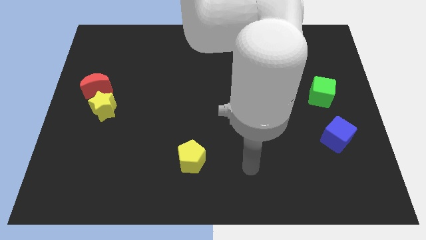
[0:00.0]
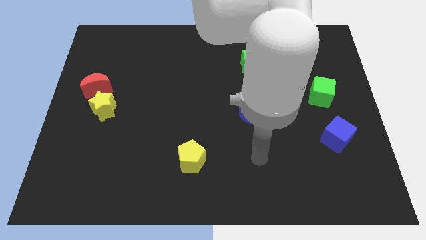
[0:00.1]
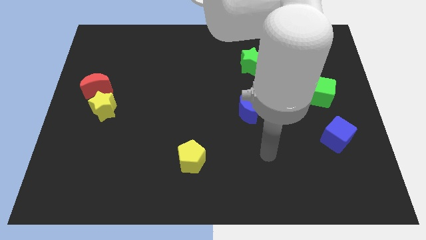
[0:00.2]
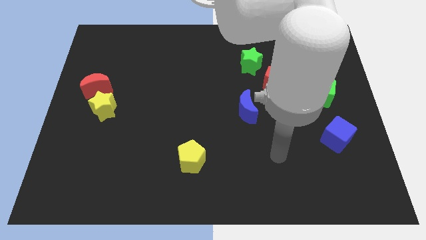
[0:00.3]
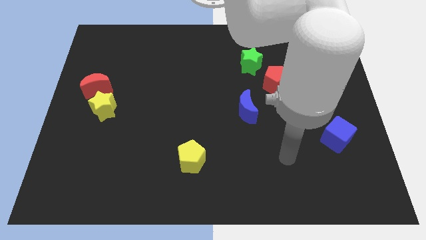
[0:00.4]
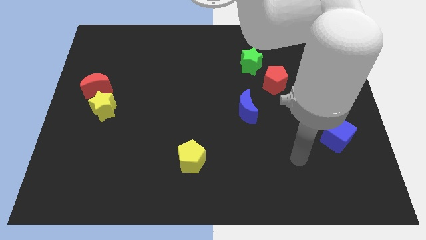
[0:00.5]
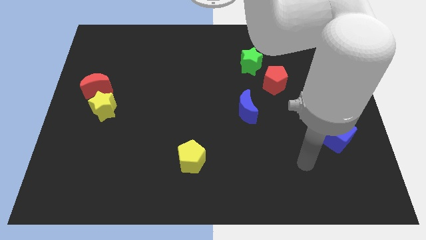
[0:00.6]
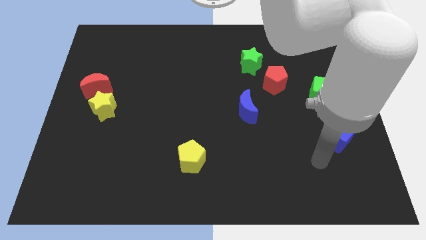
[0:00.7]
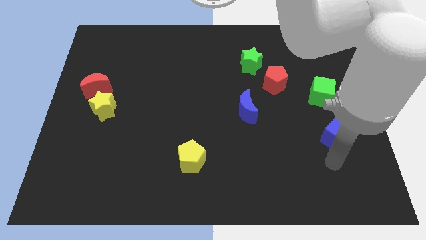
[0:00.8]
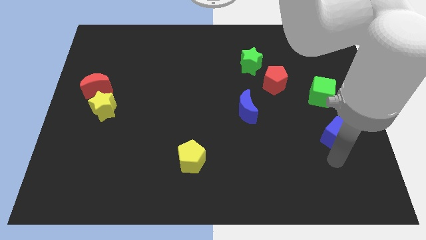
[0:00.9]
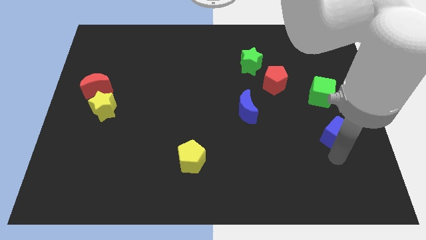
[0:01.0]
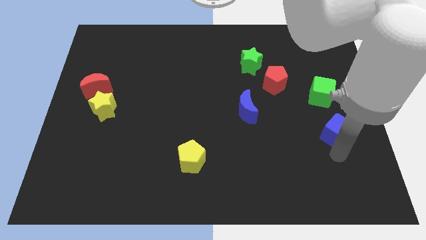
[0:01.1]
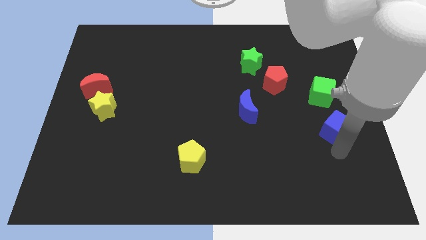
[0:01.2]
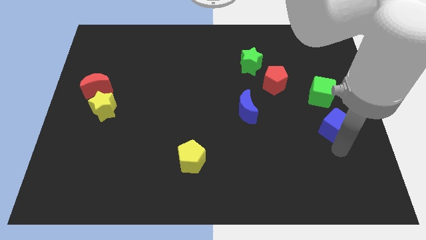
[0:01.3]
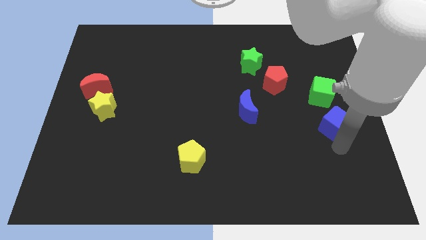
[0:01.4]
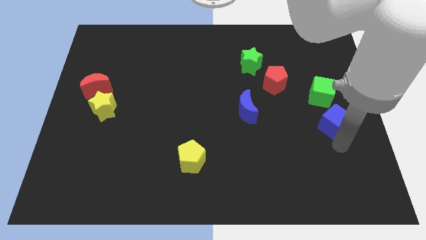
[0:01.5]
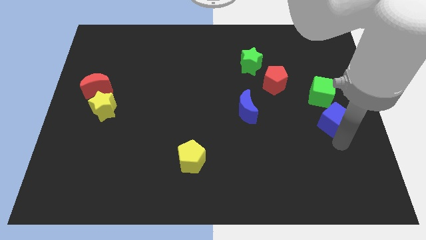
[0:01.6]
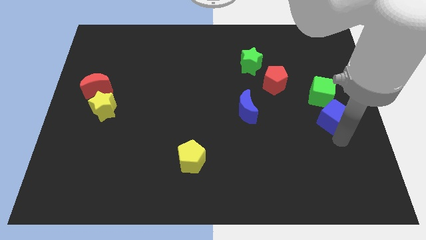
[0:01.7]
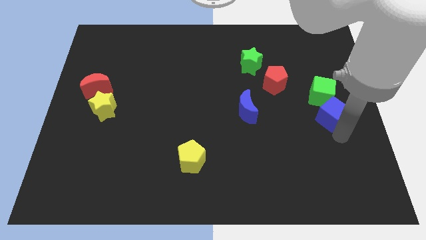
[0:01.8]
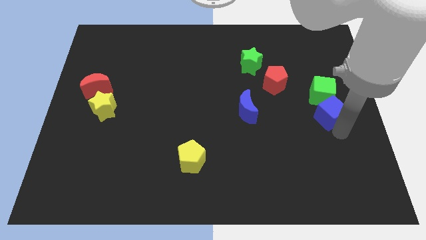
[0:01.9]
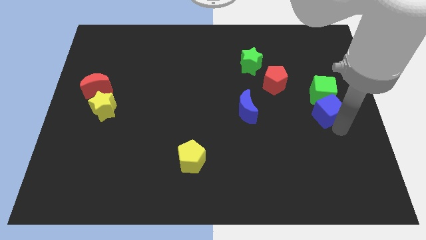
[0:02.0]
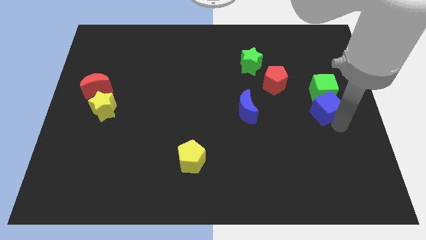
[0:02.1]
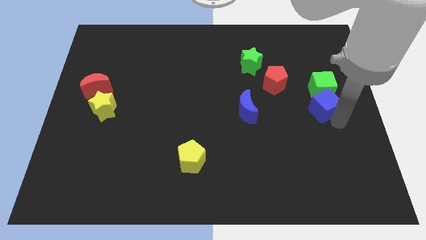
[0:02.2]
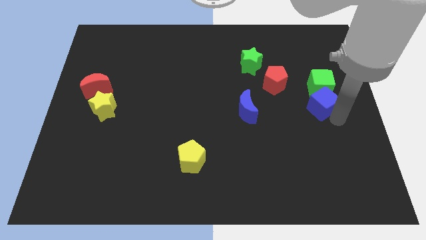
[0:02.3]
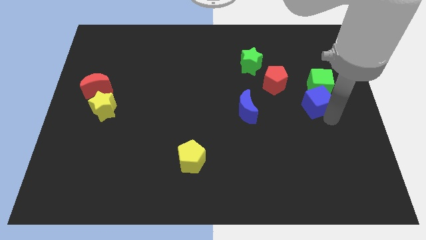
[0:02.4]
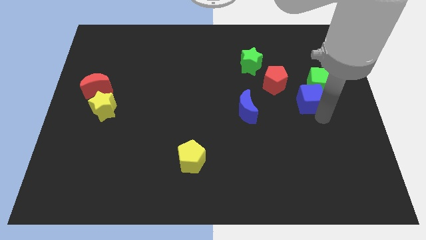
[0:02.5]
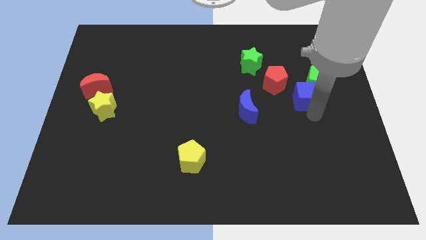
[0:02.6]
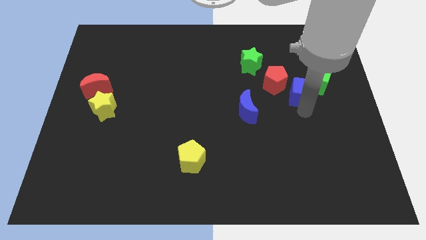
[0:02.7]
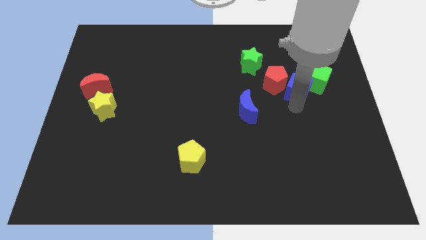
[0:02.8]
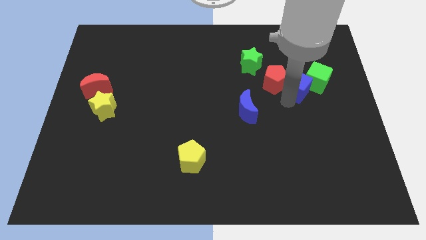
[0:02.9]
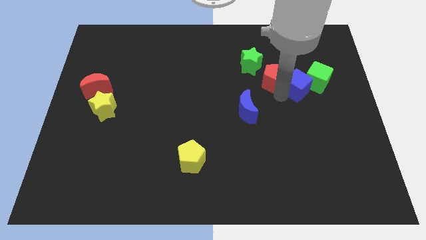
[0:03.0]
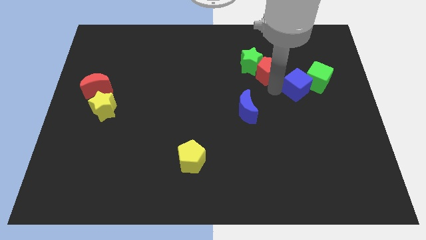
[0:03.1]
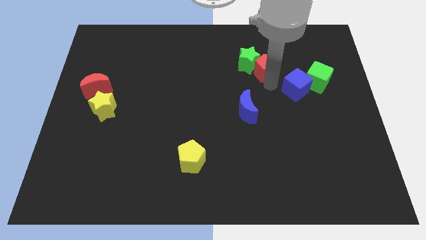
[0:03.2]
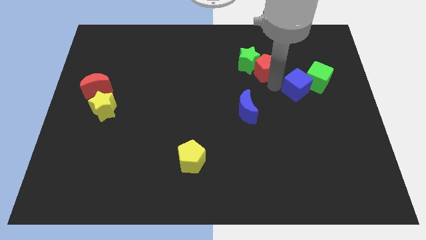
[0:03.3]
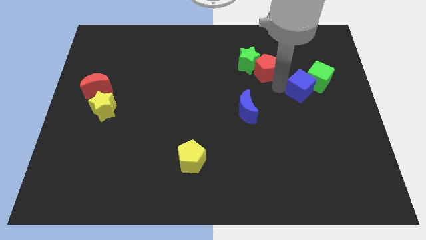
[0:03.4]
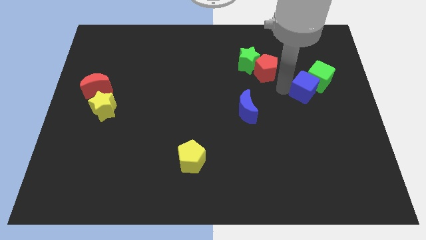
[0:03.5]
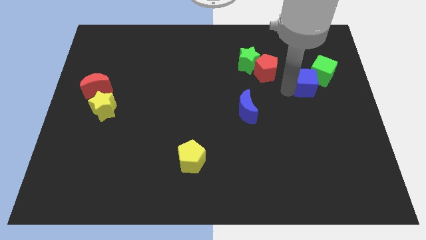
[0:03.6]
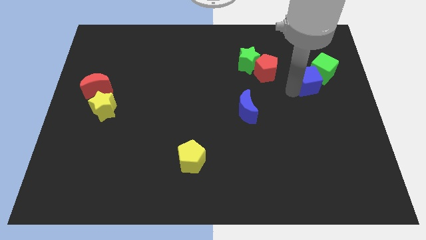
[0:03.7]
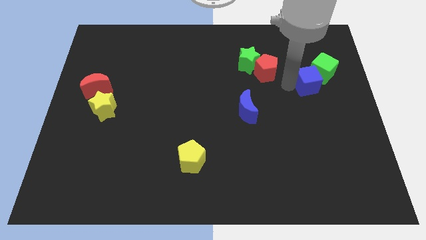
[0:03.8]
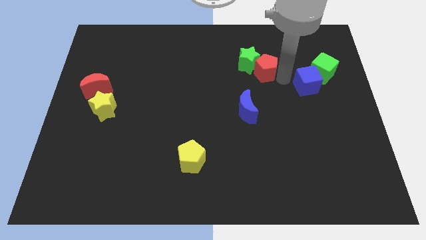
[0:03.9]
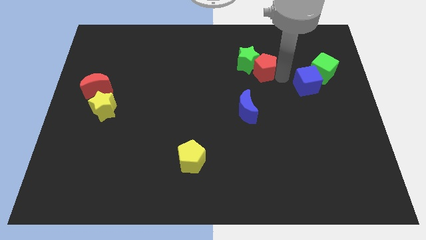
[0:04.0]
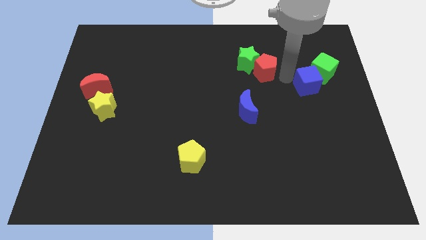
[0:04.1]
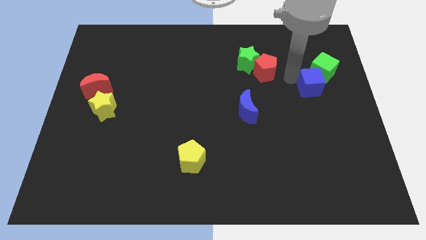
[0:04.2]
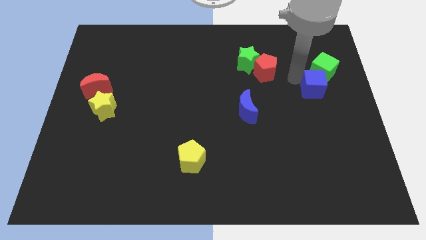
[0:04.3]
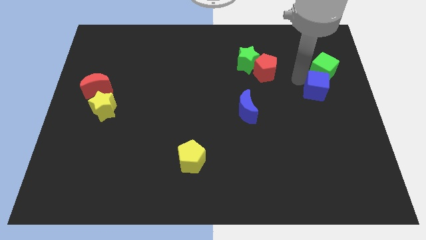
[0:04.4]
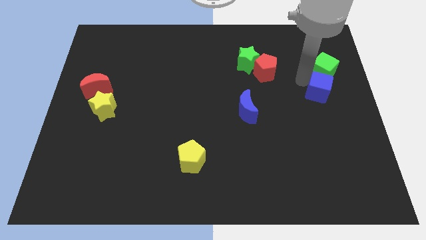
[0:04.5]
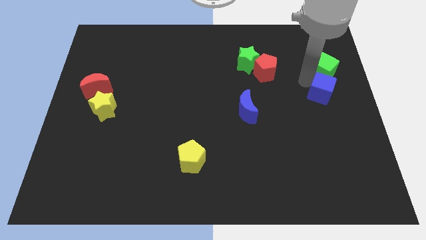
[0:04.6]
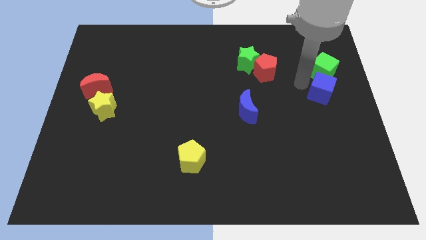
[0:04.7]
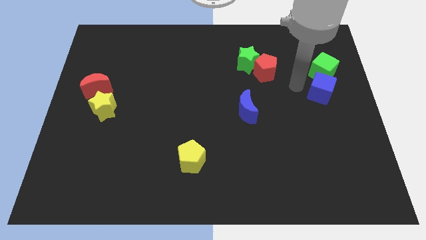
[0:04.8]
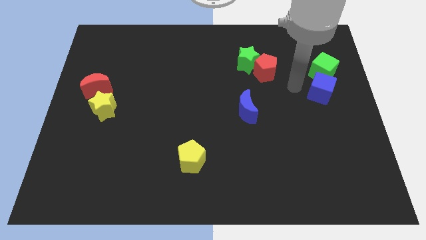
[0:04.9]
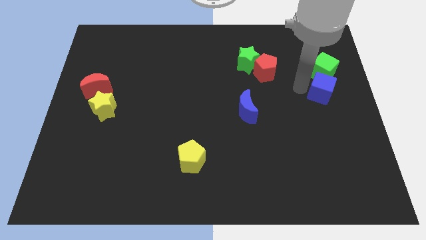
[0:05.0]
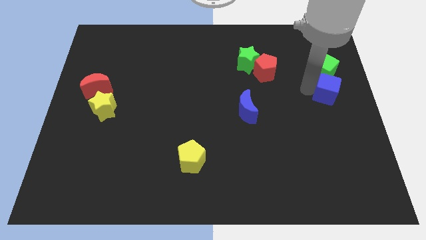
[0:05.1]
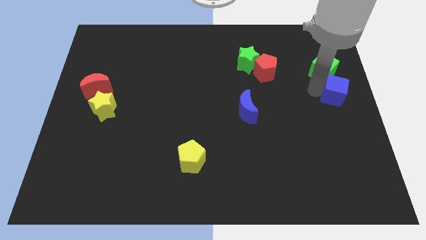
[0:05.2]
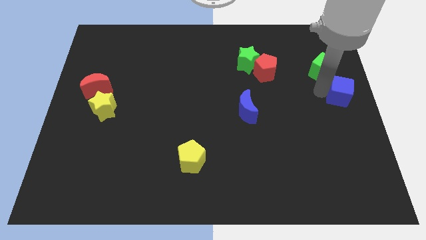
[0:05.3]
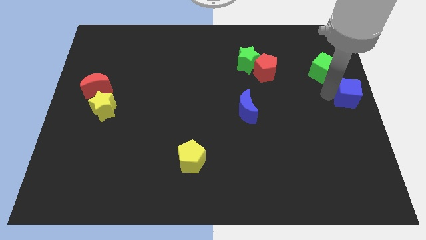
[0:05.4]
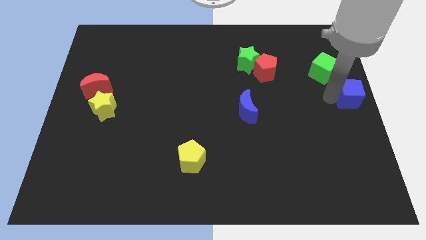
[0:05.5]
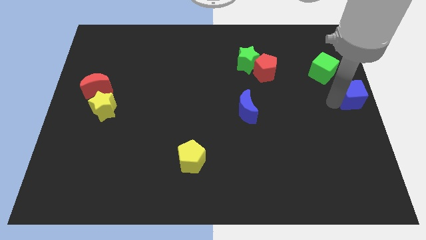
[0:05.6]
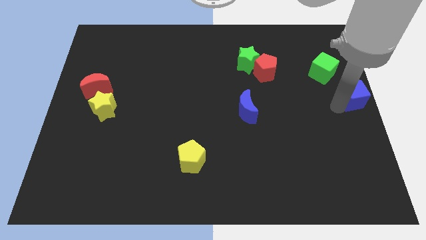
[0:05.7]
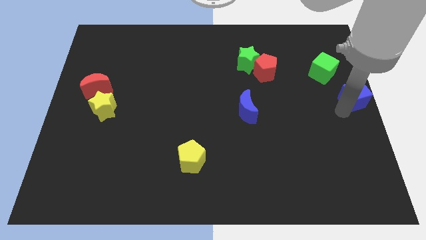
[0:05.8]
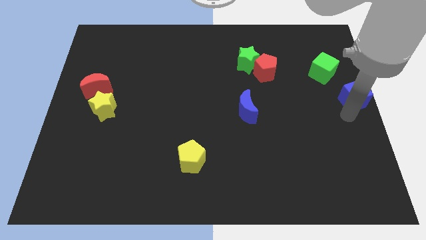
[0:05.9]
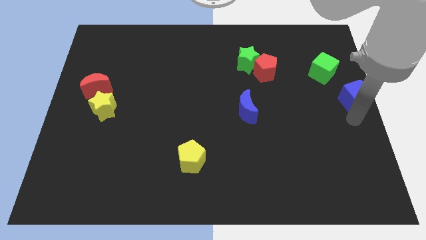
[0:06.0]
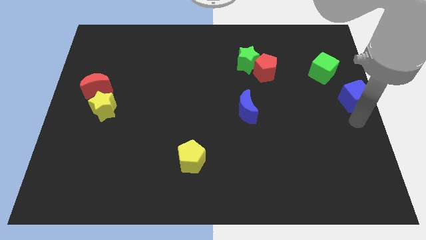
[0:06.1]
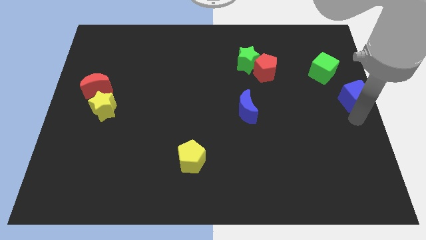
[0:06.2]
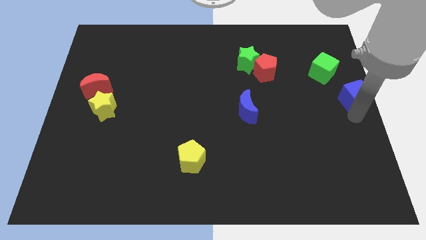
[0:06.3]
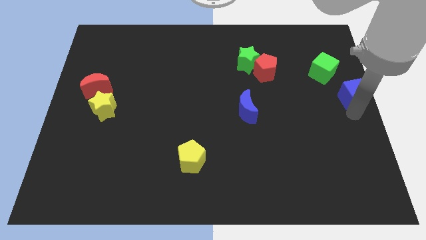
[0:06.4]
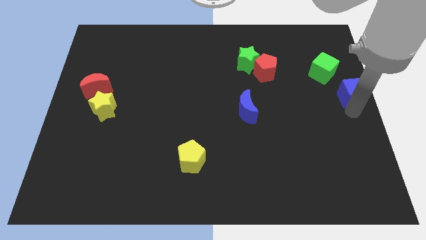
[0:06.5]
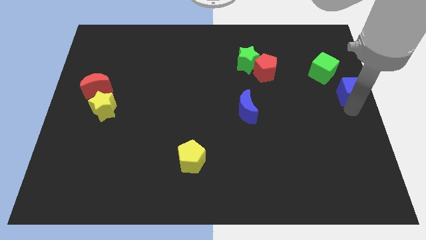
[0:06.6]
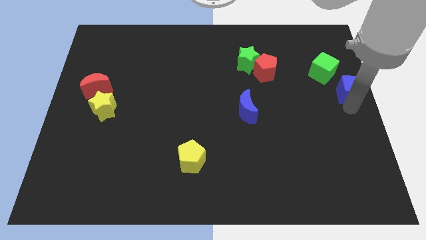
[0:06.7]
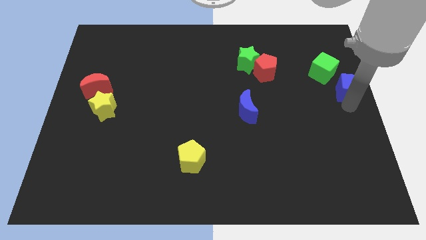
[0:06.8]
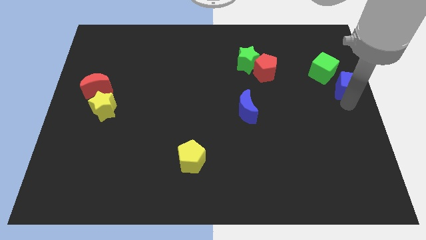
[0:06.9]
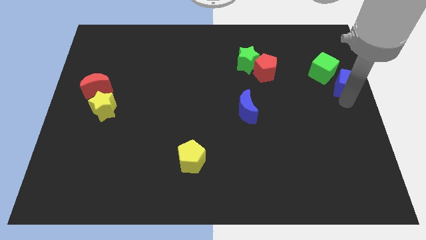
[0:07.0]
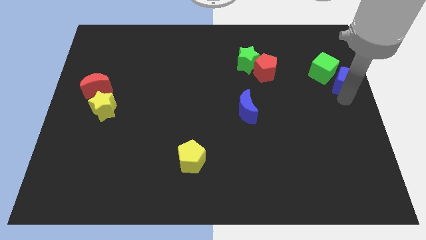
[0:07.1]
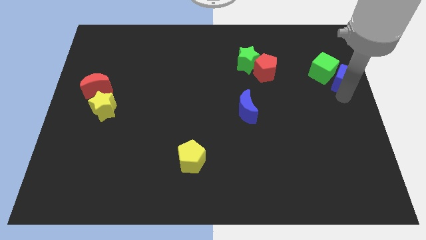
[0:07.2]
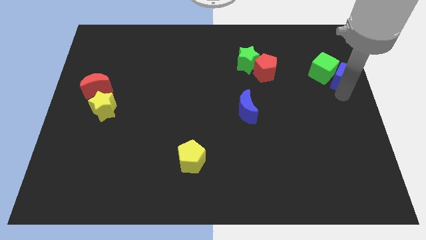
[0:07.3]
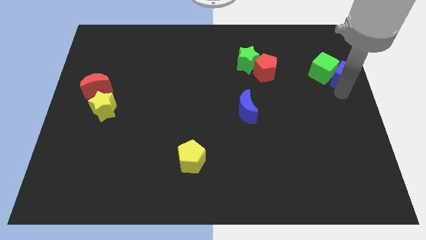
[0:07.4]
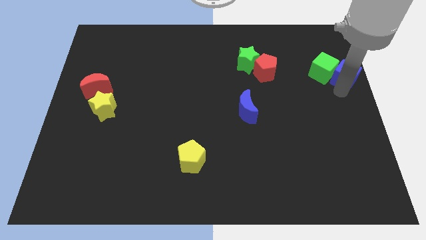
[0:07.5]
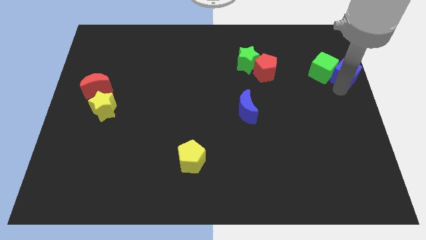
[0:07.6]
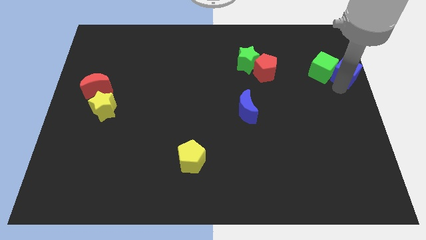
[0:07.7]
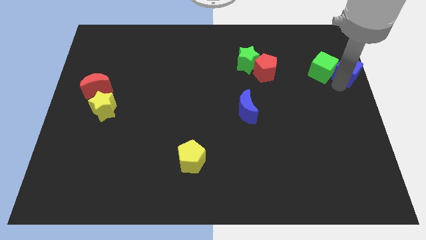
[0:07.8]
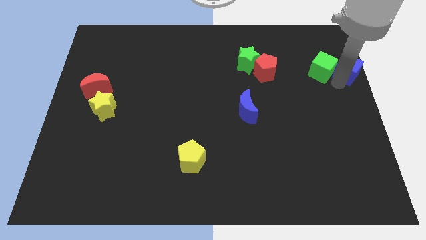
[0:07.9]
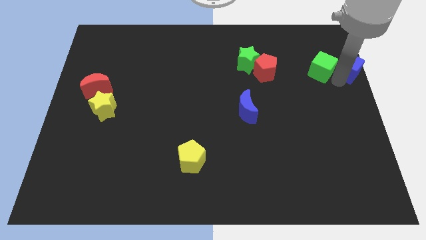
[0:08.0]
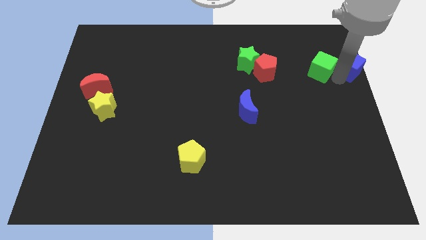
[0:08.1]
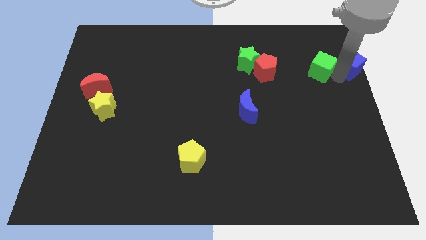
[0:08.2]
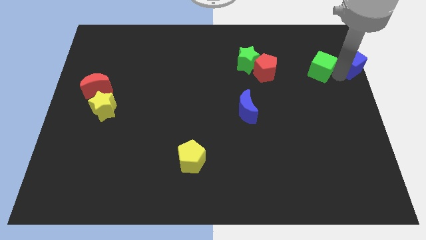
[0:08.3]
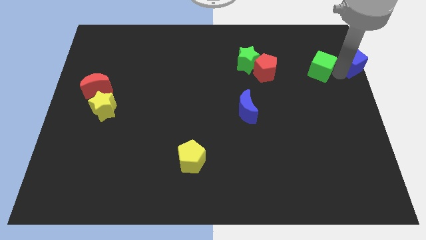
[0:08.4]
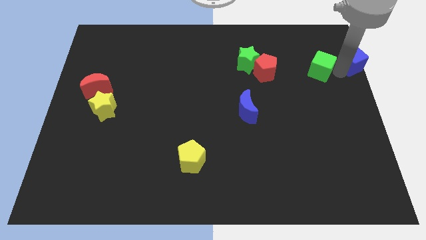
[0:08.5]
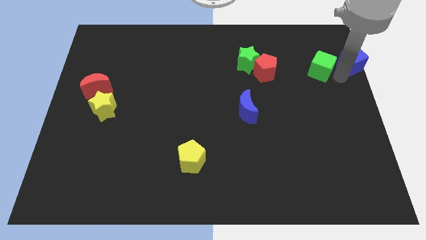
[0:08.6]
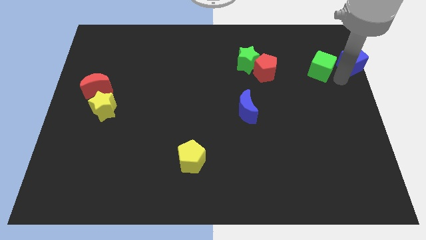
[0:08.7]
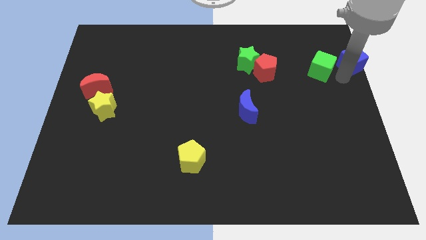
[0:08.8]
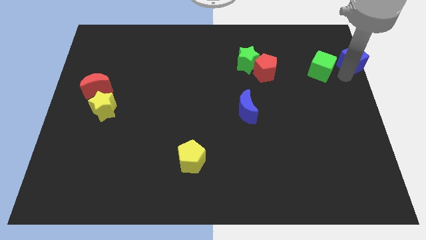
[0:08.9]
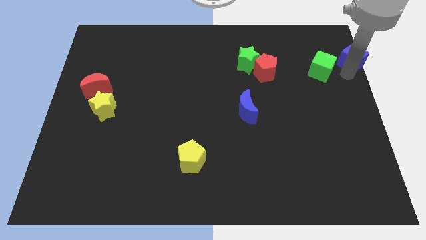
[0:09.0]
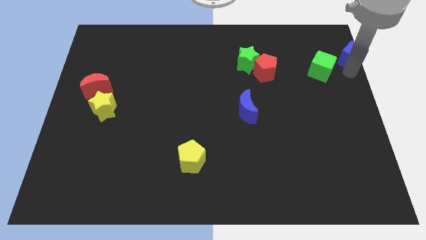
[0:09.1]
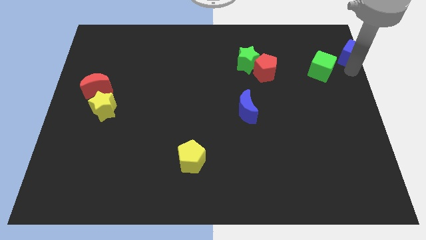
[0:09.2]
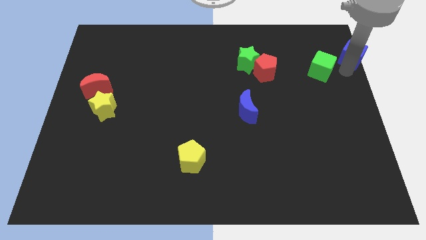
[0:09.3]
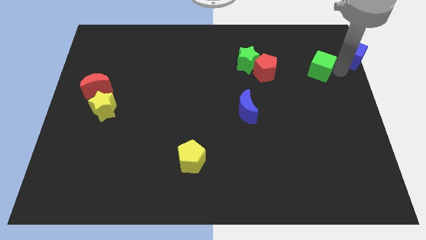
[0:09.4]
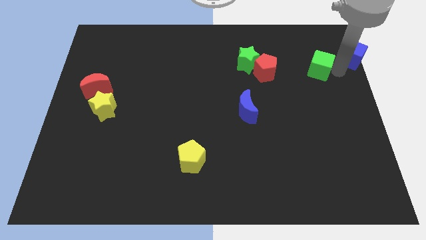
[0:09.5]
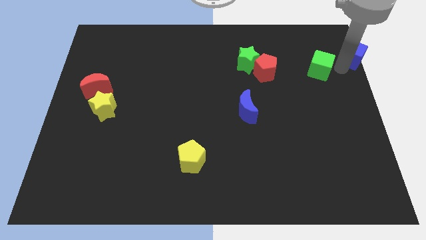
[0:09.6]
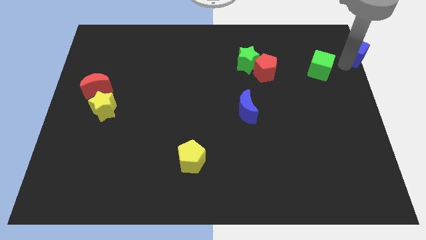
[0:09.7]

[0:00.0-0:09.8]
move the blue cube to the upper right corner
